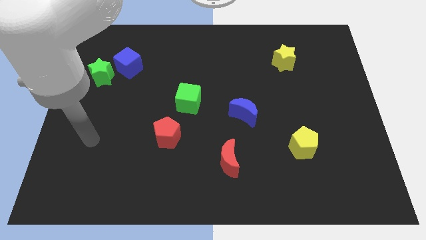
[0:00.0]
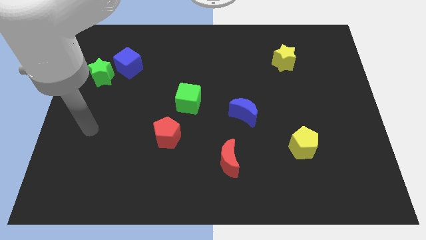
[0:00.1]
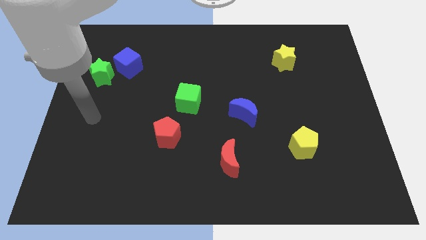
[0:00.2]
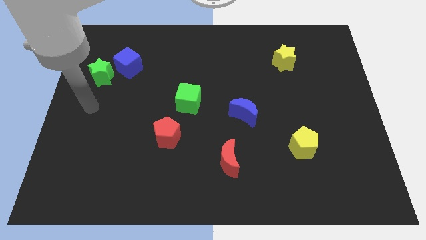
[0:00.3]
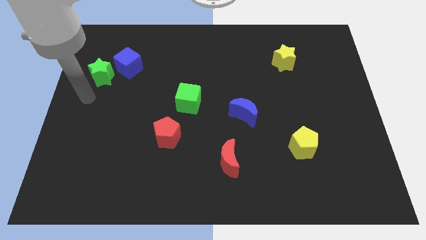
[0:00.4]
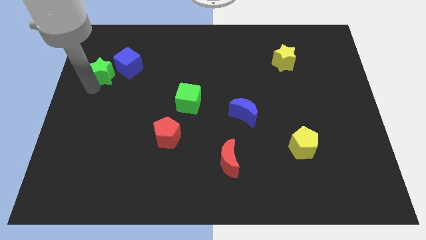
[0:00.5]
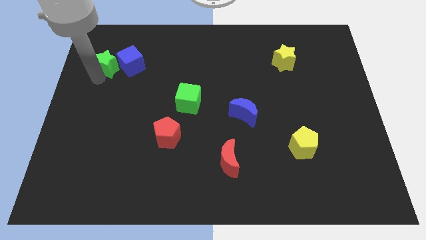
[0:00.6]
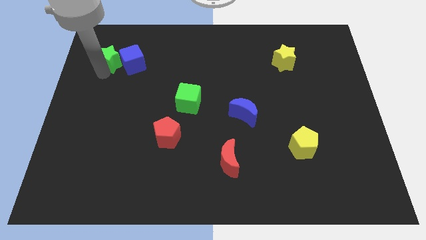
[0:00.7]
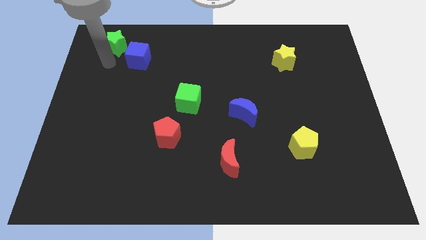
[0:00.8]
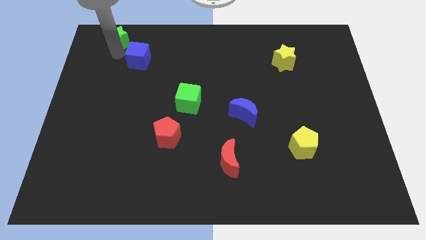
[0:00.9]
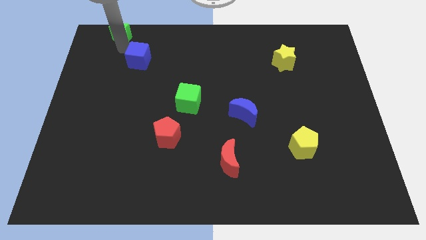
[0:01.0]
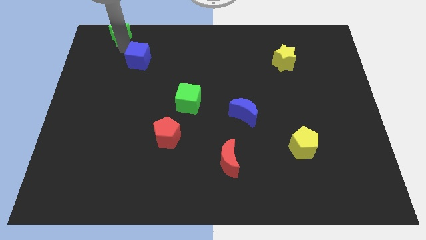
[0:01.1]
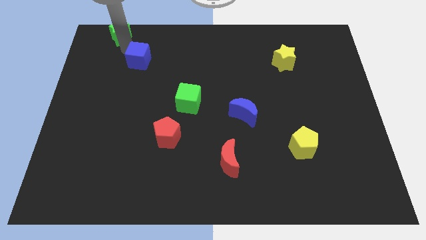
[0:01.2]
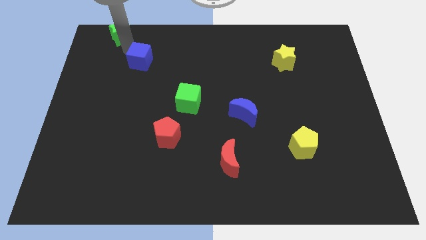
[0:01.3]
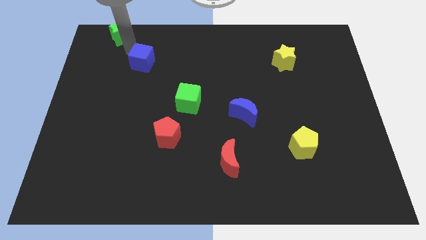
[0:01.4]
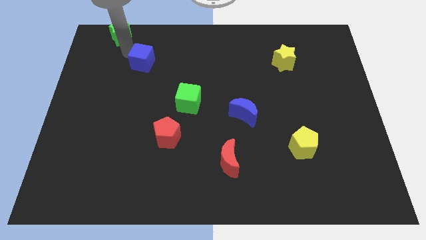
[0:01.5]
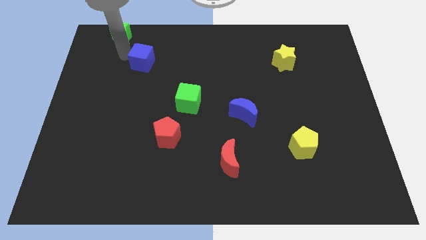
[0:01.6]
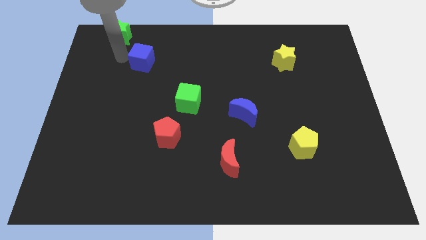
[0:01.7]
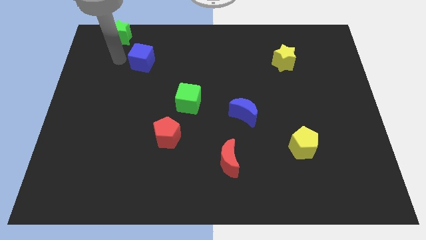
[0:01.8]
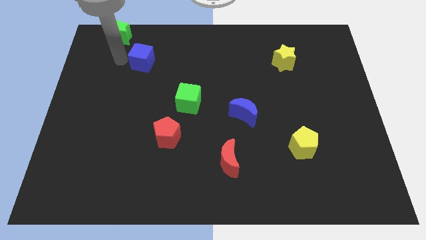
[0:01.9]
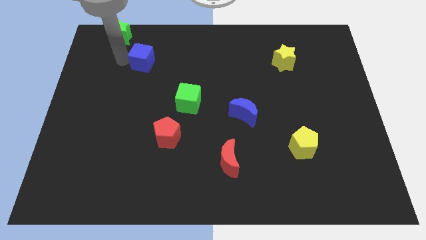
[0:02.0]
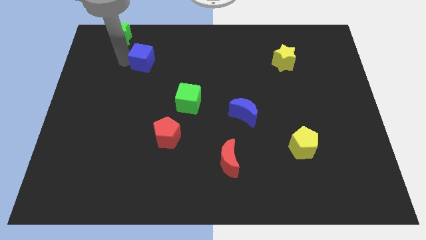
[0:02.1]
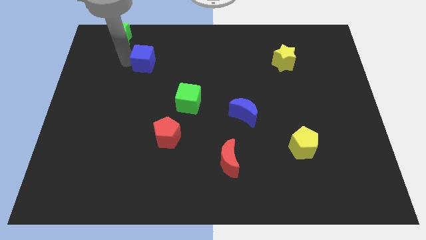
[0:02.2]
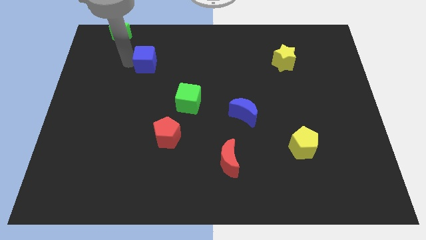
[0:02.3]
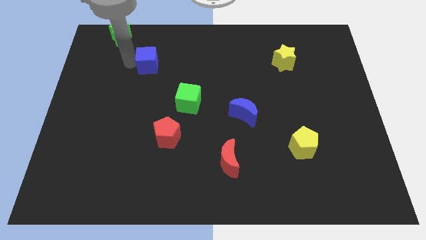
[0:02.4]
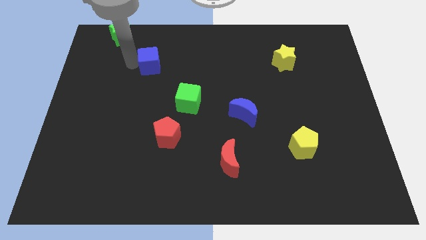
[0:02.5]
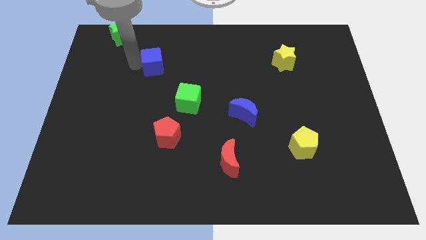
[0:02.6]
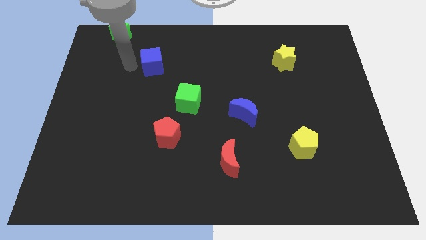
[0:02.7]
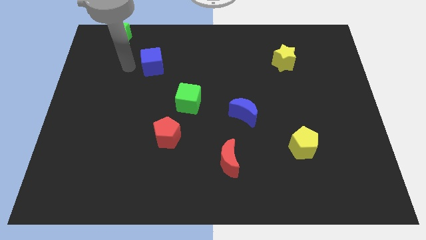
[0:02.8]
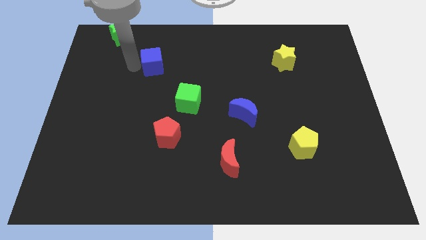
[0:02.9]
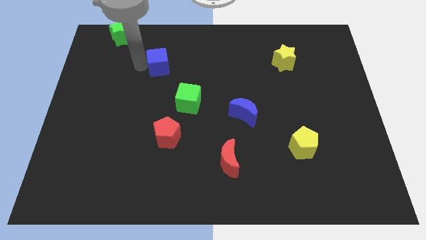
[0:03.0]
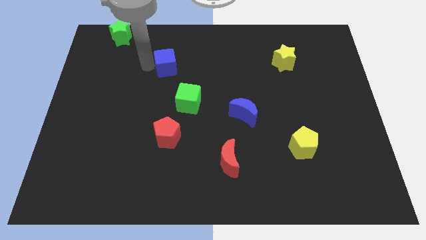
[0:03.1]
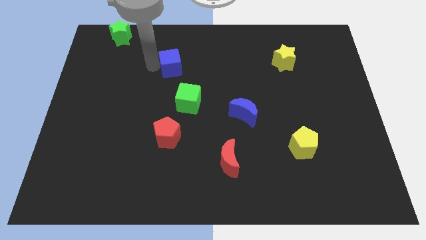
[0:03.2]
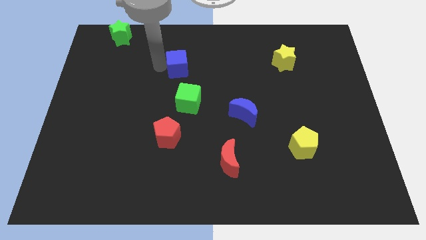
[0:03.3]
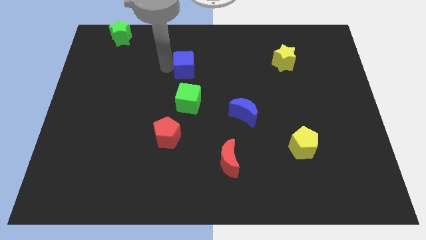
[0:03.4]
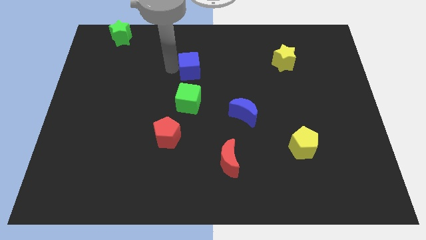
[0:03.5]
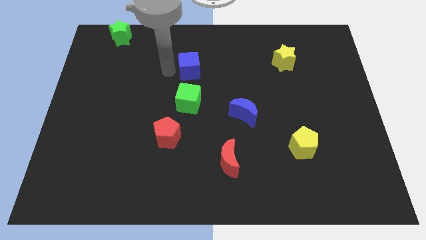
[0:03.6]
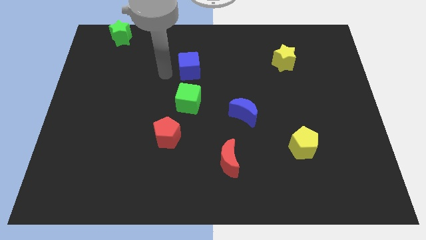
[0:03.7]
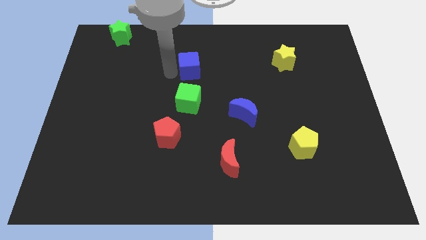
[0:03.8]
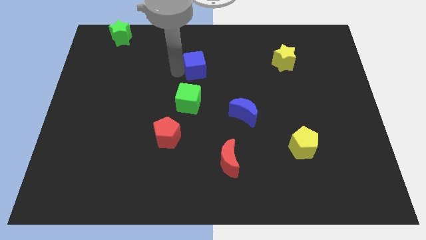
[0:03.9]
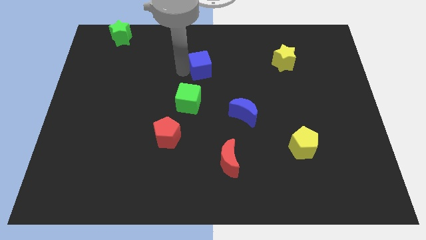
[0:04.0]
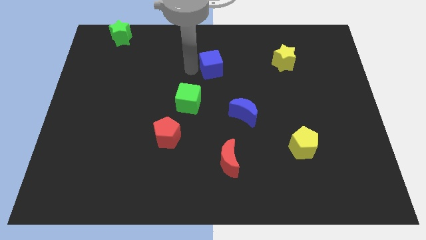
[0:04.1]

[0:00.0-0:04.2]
slide the blue cube to the right

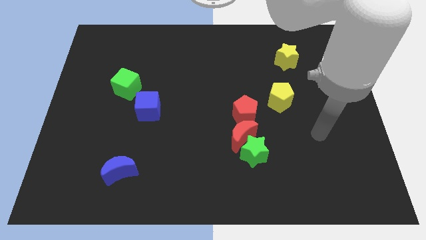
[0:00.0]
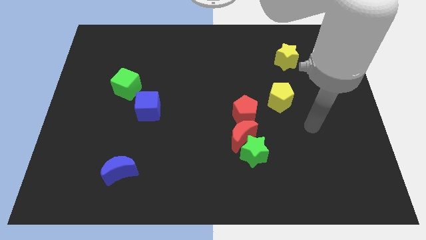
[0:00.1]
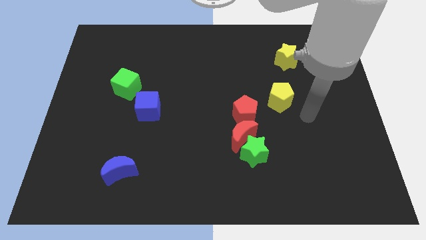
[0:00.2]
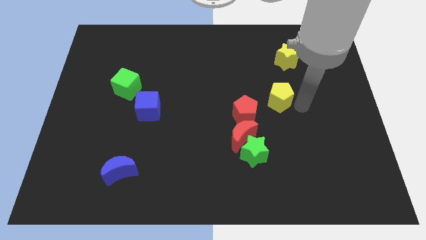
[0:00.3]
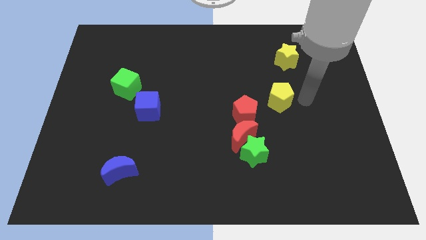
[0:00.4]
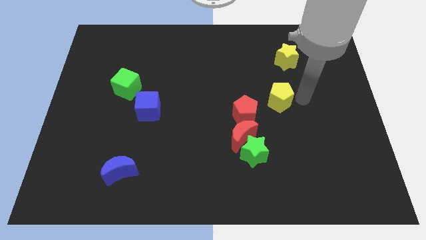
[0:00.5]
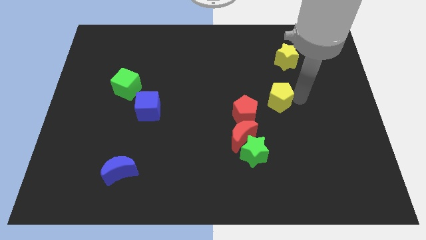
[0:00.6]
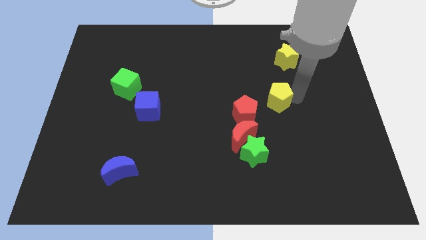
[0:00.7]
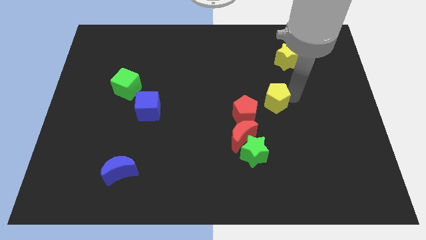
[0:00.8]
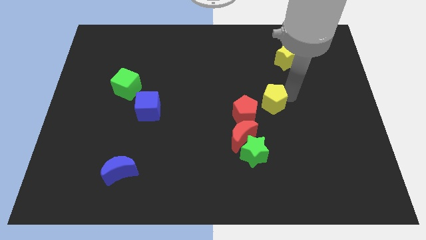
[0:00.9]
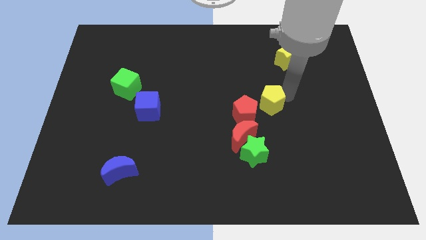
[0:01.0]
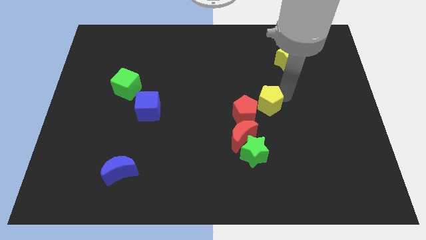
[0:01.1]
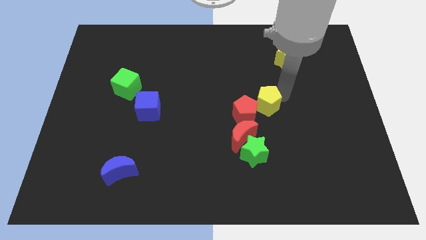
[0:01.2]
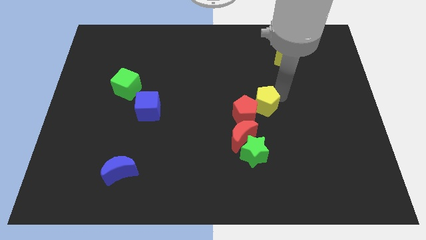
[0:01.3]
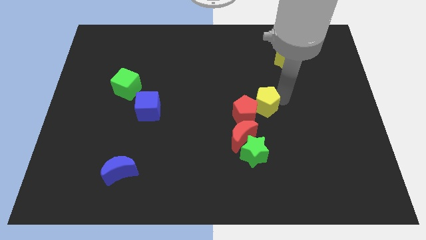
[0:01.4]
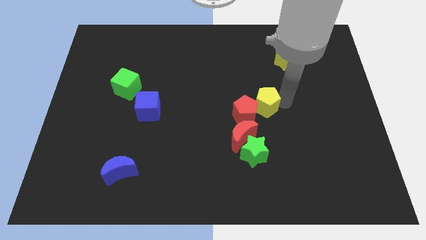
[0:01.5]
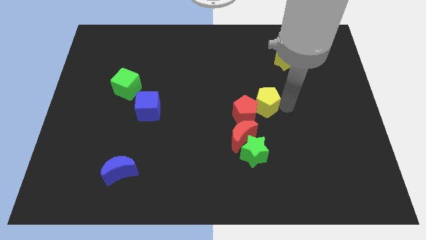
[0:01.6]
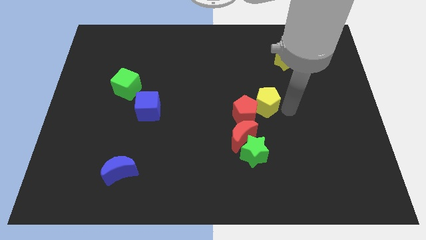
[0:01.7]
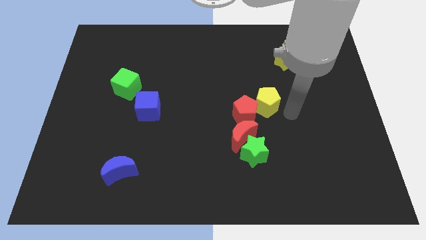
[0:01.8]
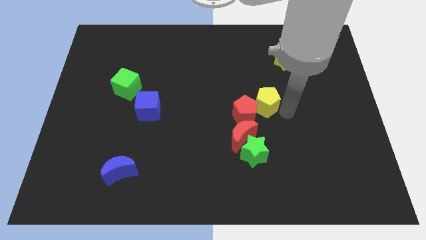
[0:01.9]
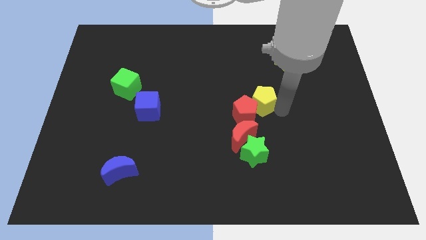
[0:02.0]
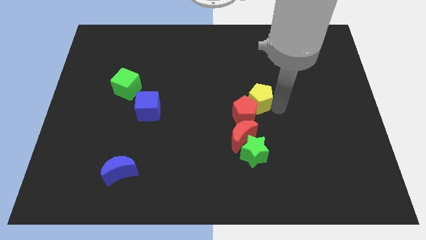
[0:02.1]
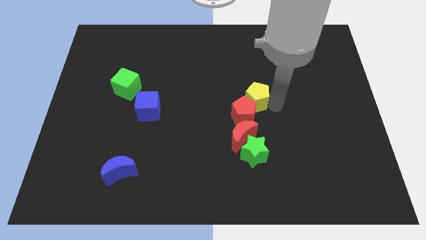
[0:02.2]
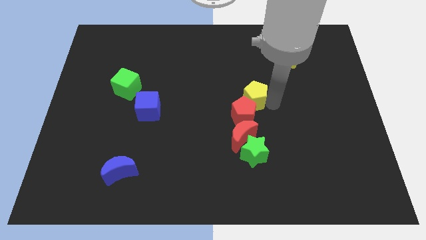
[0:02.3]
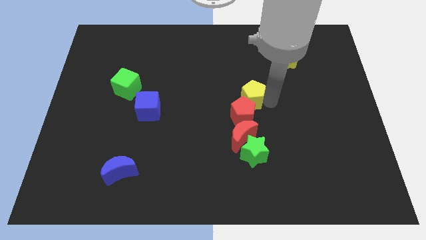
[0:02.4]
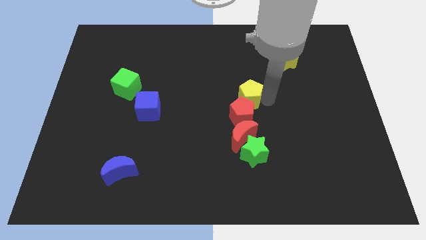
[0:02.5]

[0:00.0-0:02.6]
slightly slide the yellow pentagon to the left

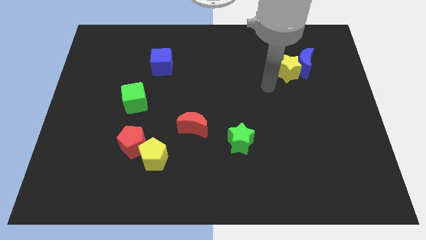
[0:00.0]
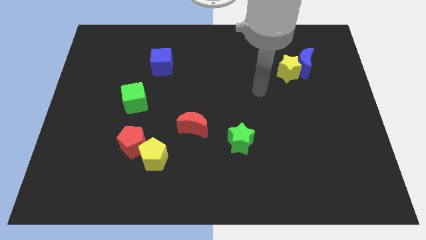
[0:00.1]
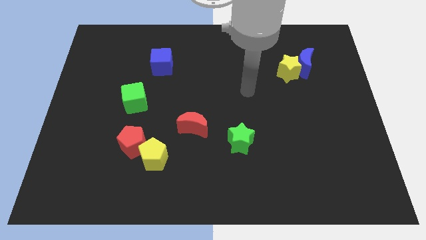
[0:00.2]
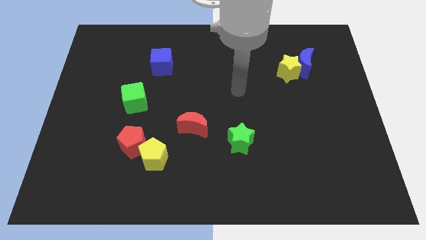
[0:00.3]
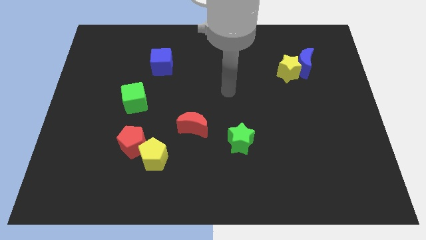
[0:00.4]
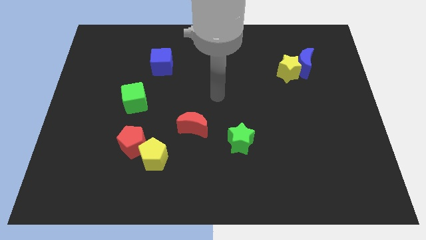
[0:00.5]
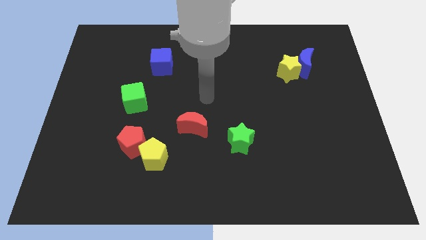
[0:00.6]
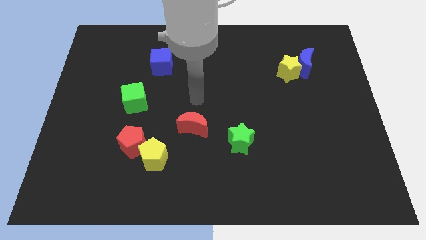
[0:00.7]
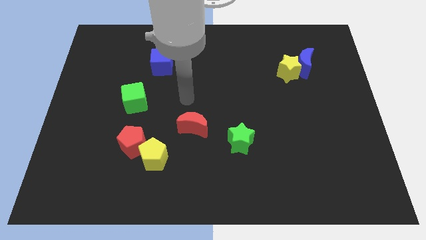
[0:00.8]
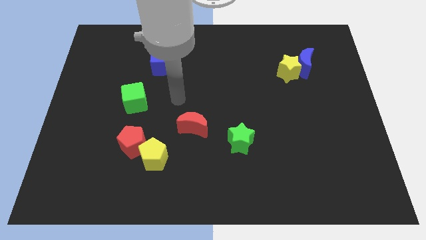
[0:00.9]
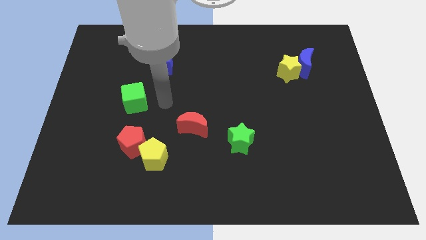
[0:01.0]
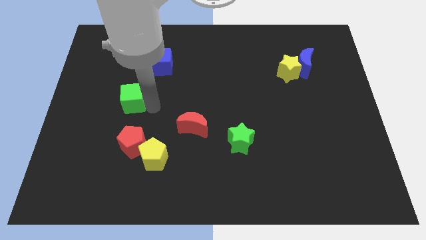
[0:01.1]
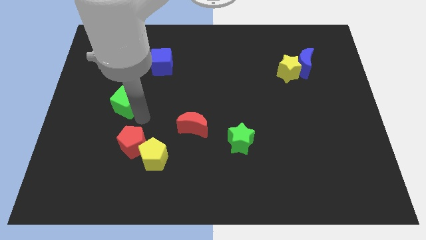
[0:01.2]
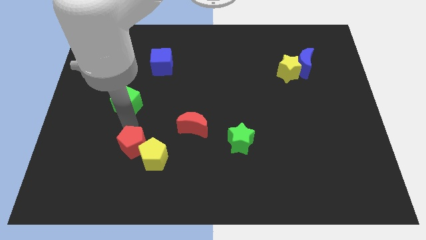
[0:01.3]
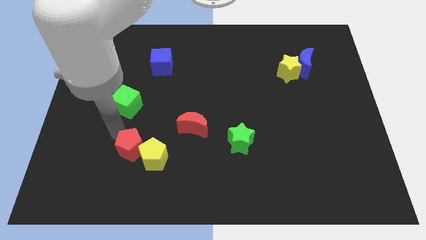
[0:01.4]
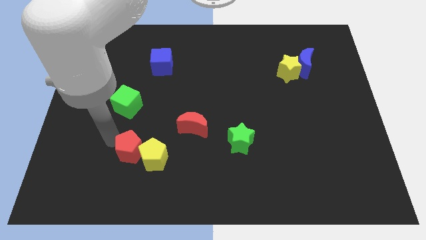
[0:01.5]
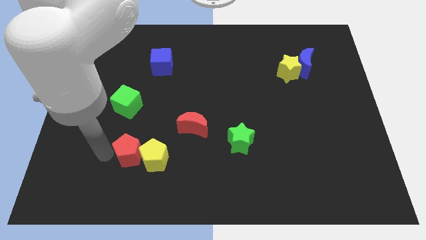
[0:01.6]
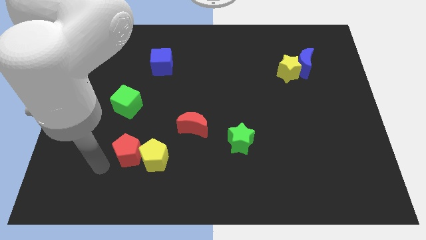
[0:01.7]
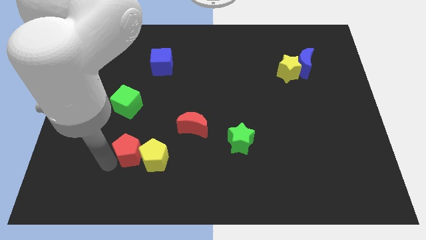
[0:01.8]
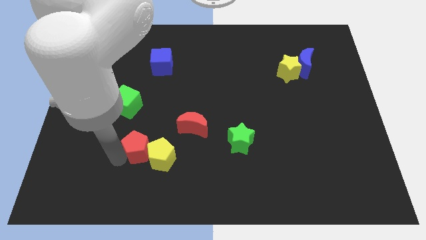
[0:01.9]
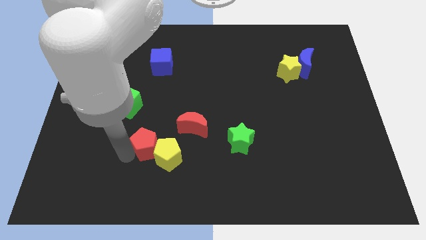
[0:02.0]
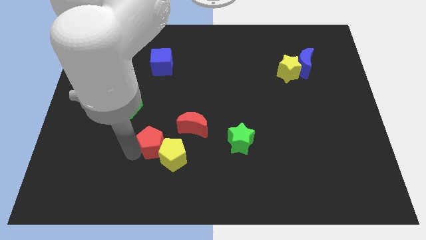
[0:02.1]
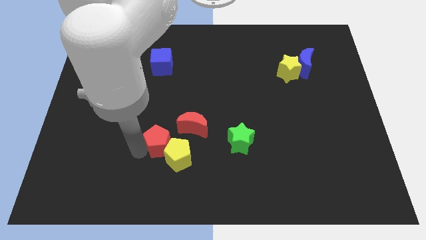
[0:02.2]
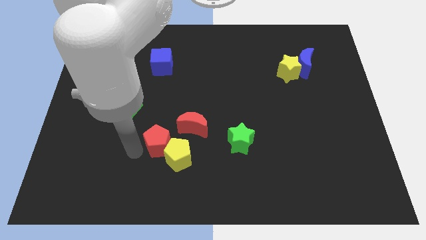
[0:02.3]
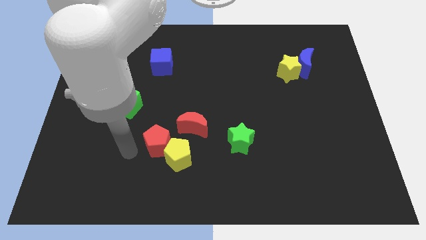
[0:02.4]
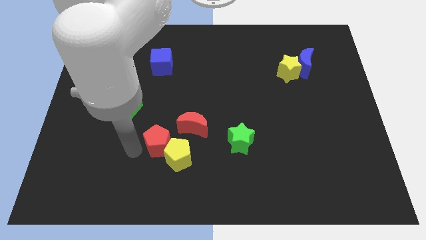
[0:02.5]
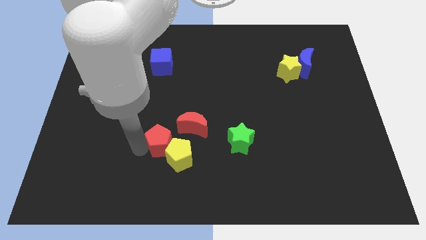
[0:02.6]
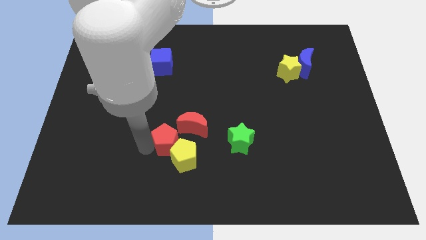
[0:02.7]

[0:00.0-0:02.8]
push the red pentagon right a bit
